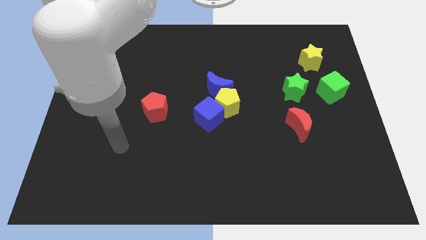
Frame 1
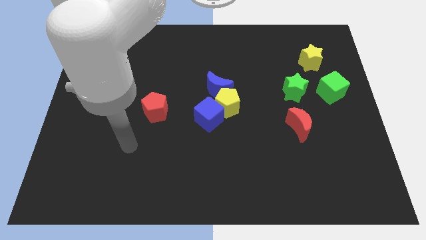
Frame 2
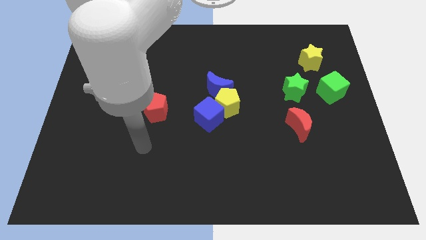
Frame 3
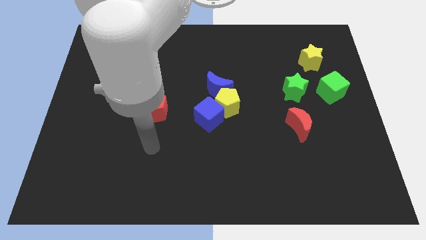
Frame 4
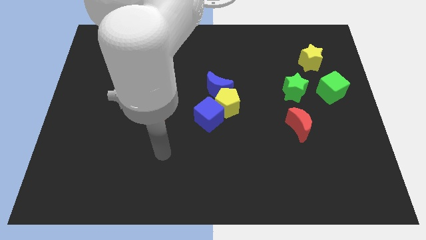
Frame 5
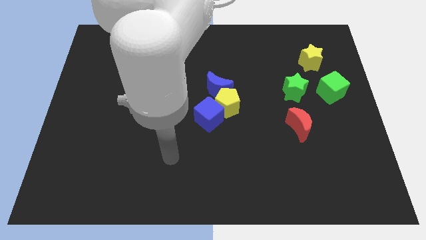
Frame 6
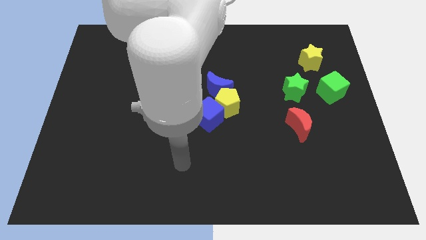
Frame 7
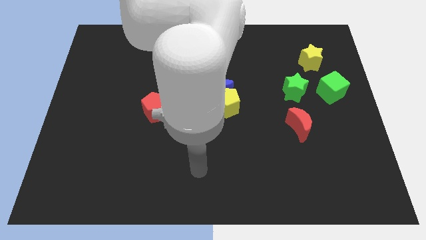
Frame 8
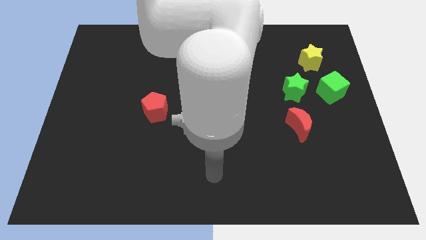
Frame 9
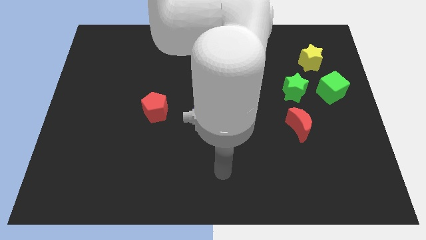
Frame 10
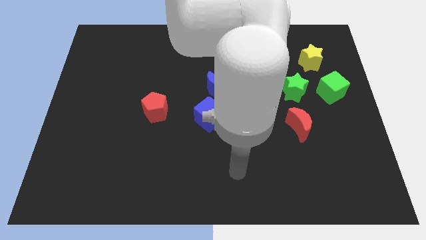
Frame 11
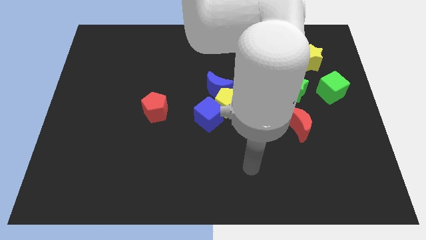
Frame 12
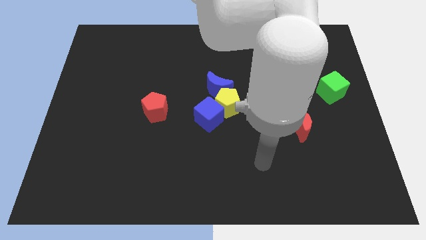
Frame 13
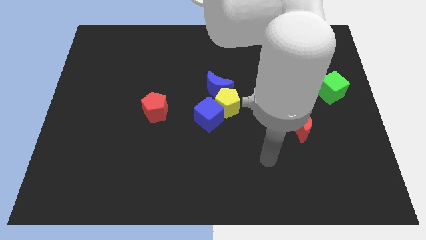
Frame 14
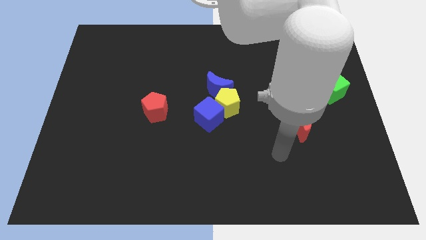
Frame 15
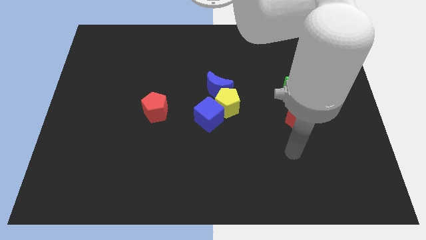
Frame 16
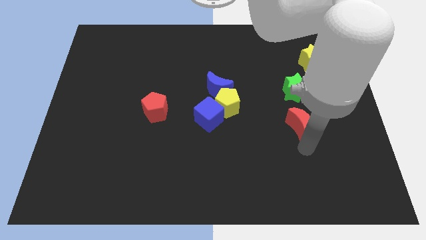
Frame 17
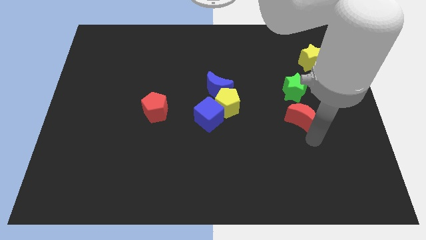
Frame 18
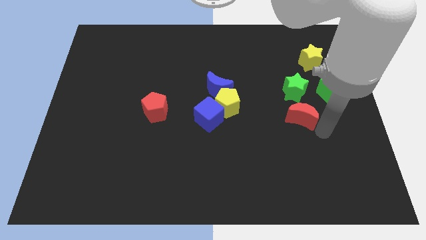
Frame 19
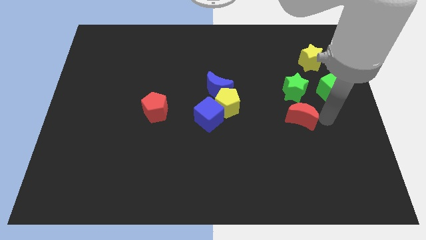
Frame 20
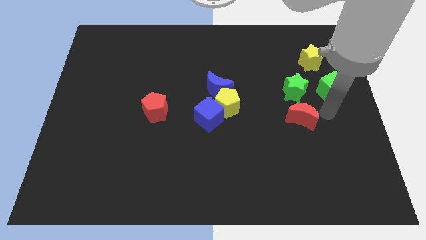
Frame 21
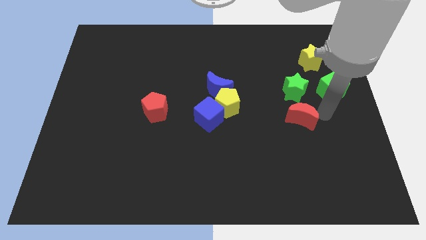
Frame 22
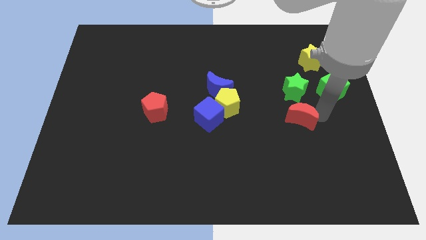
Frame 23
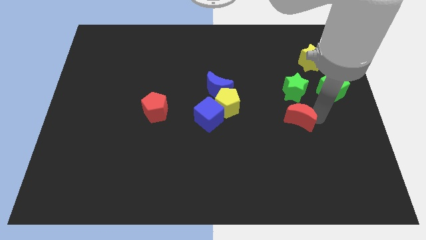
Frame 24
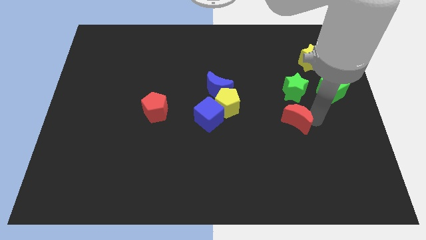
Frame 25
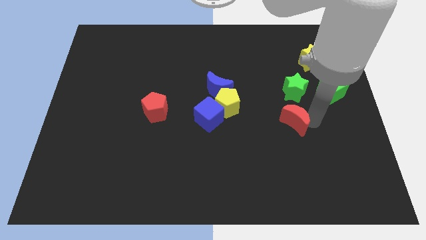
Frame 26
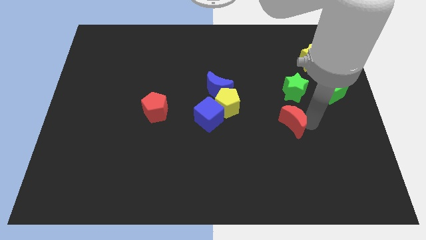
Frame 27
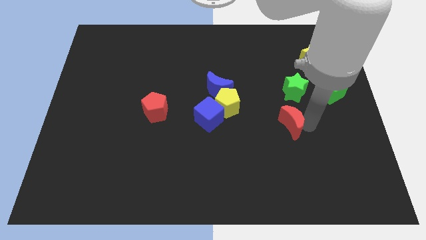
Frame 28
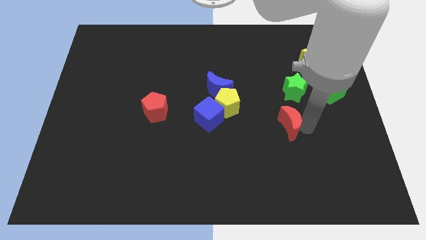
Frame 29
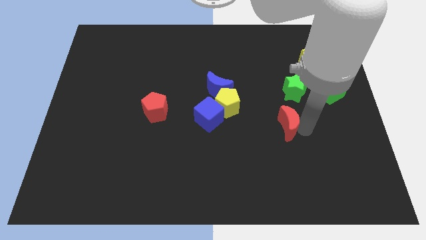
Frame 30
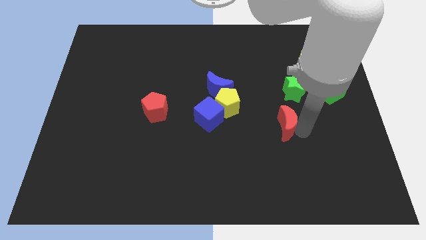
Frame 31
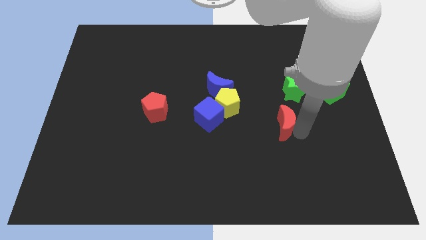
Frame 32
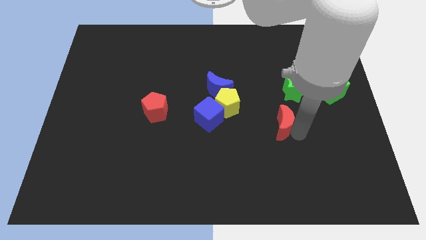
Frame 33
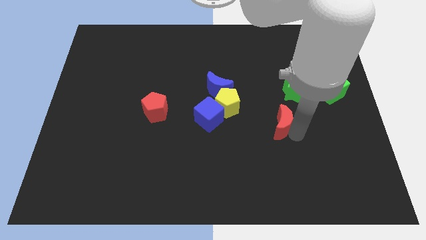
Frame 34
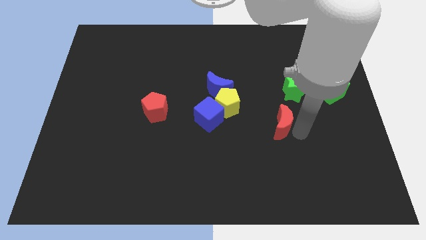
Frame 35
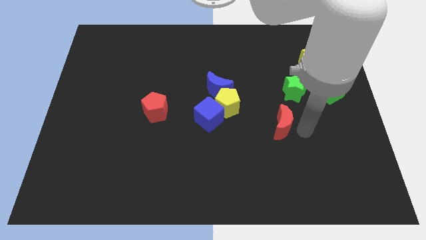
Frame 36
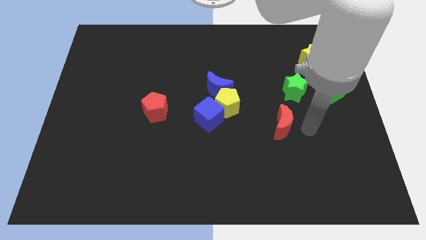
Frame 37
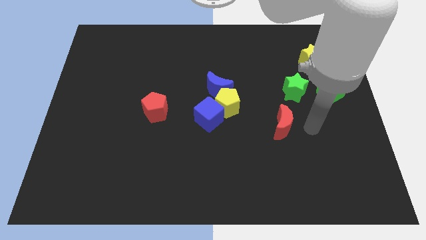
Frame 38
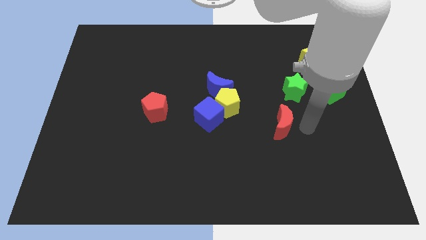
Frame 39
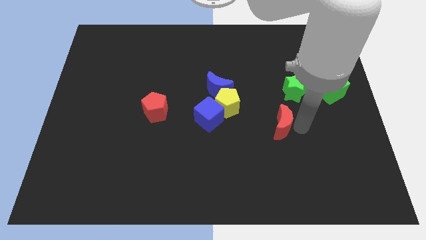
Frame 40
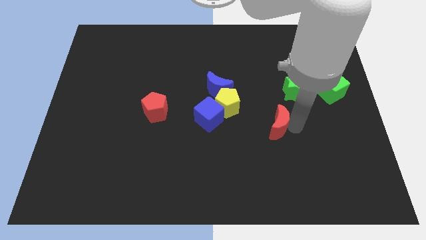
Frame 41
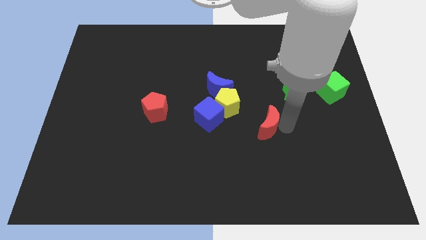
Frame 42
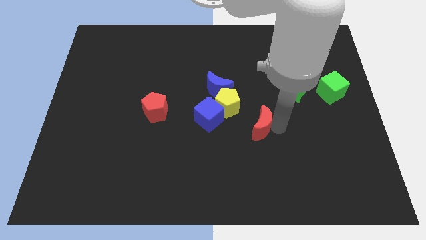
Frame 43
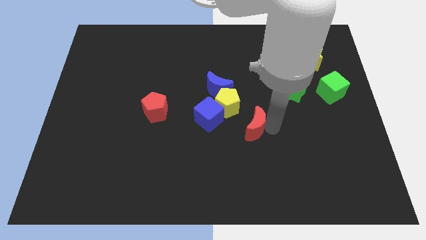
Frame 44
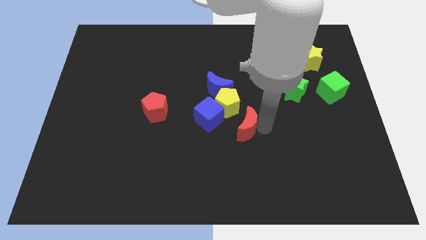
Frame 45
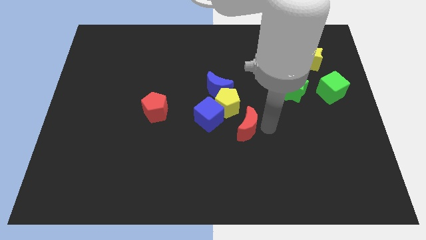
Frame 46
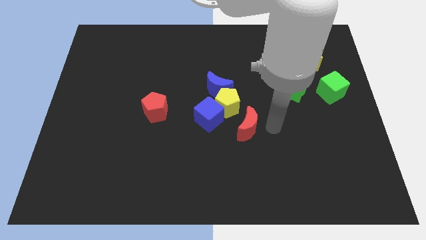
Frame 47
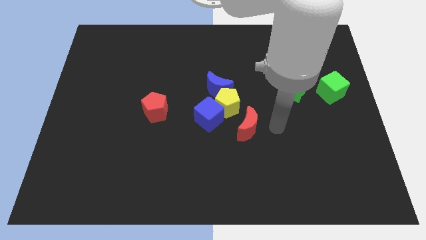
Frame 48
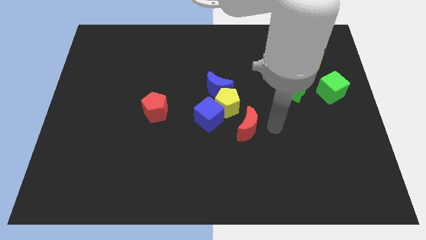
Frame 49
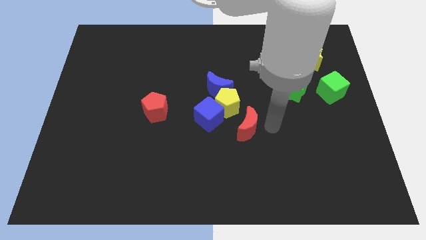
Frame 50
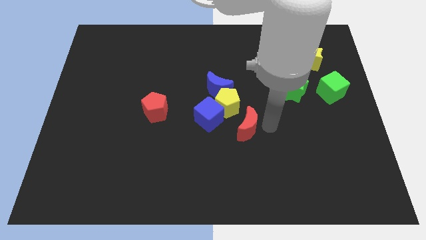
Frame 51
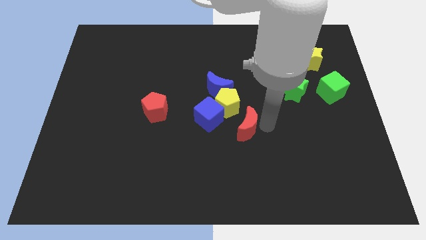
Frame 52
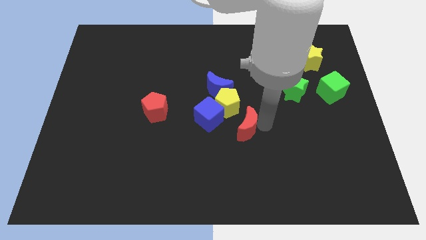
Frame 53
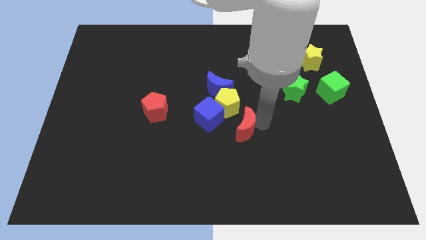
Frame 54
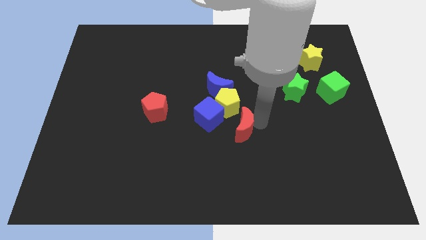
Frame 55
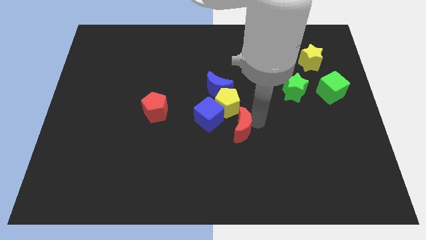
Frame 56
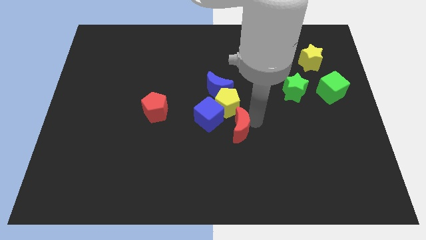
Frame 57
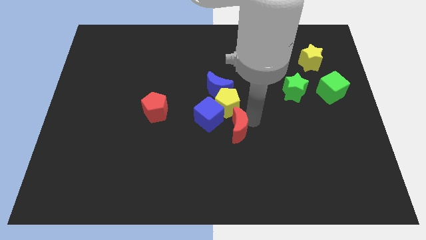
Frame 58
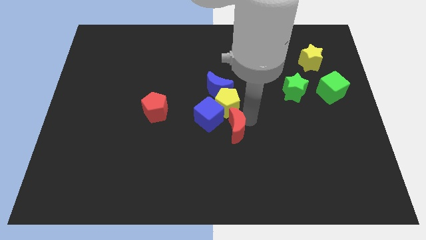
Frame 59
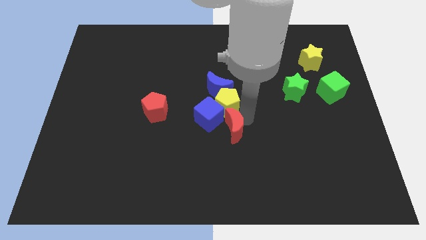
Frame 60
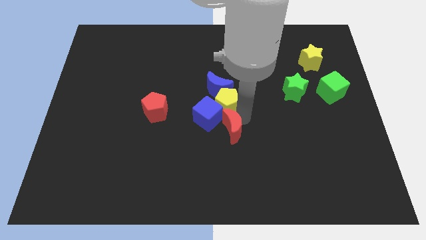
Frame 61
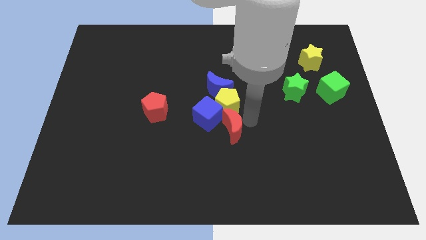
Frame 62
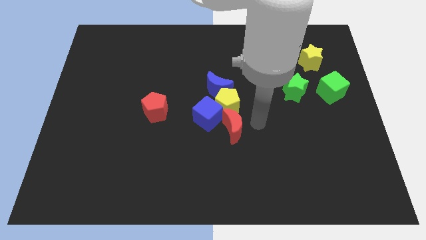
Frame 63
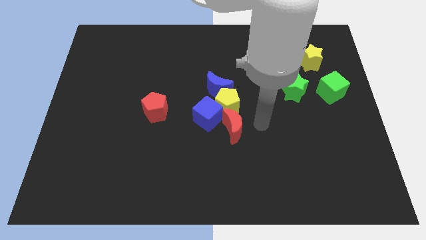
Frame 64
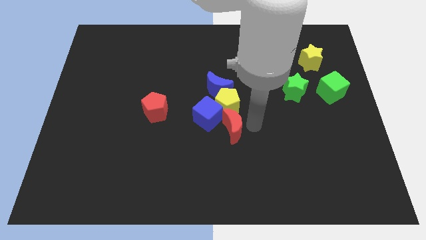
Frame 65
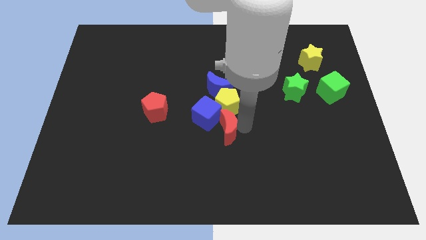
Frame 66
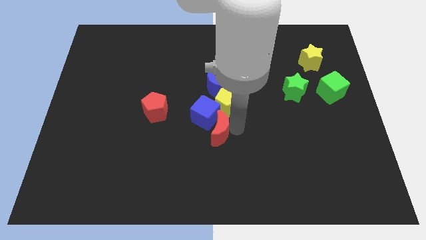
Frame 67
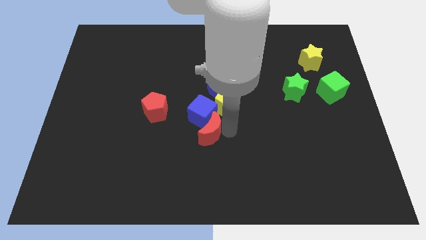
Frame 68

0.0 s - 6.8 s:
slide the red moon left

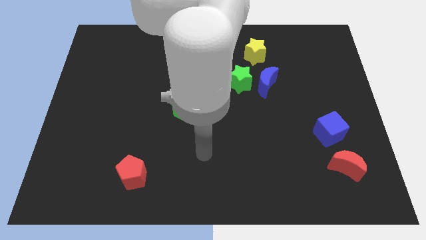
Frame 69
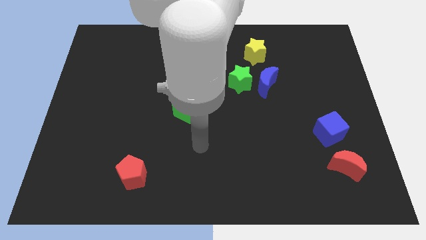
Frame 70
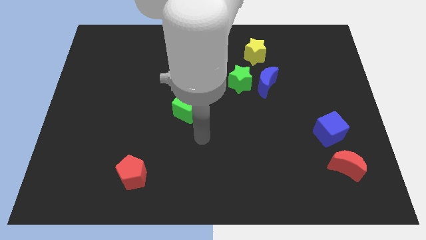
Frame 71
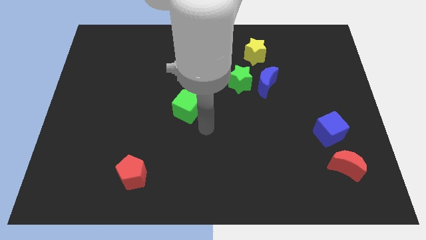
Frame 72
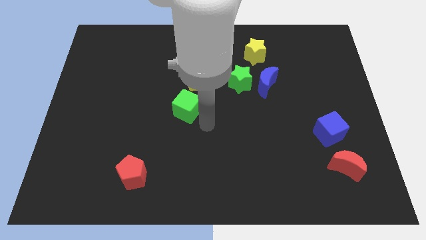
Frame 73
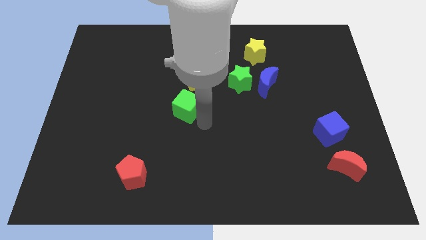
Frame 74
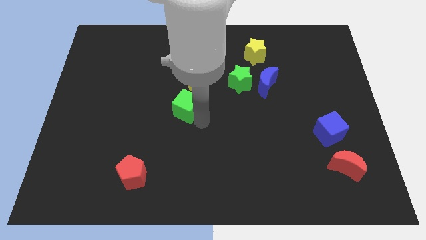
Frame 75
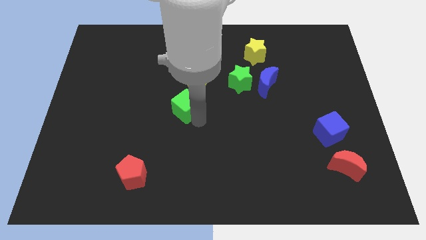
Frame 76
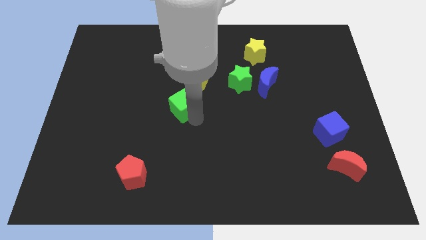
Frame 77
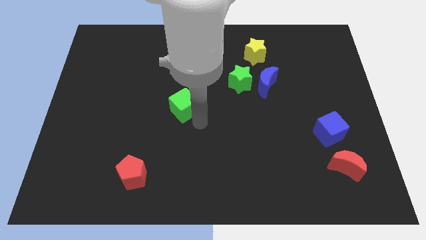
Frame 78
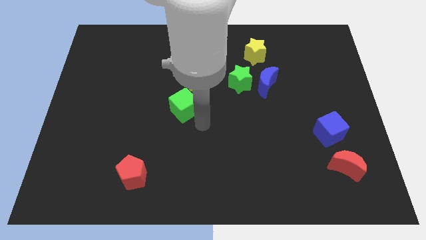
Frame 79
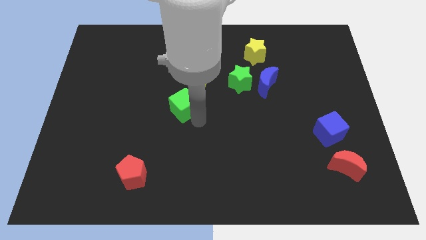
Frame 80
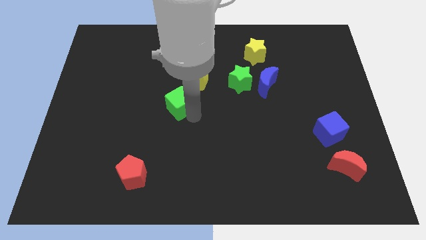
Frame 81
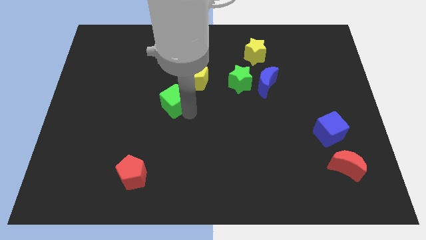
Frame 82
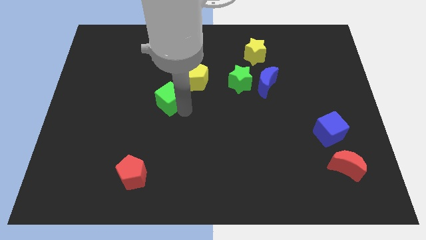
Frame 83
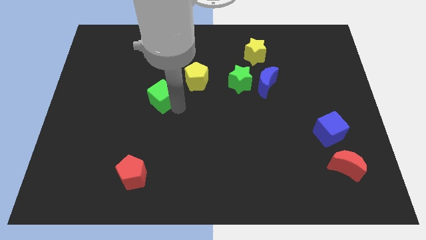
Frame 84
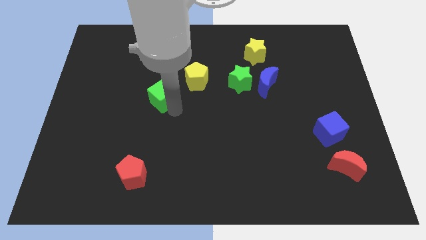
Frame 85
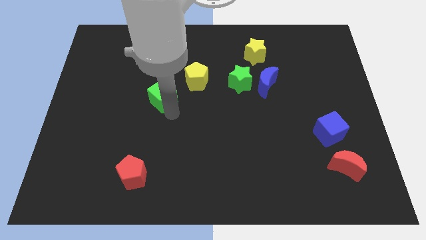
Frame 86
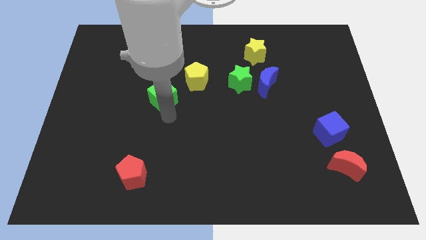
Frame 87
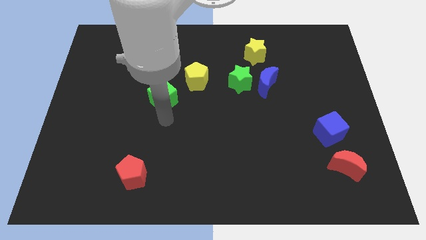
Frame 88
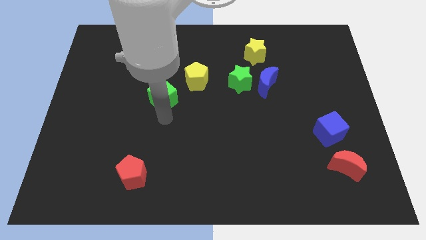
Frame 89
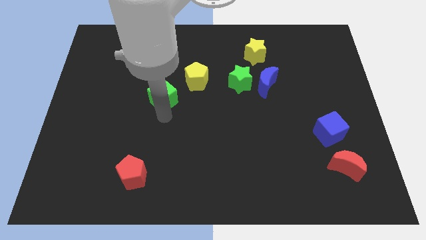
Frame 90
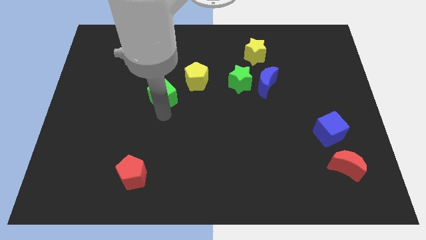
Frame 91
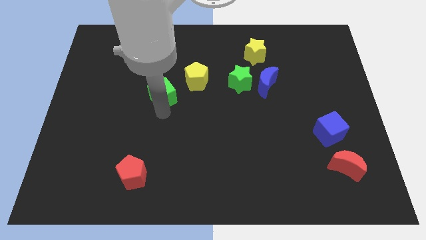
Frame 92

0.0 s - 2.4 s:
slightly slide the green cube upwards and left diagonally
